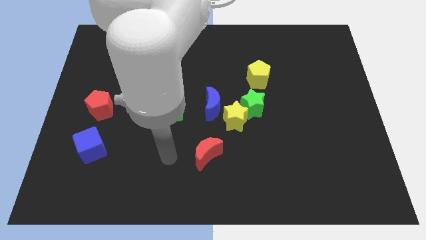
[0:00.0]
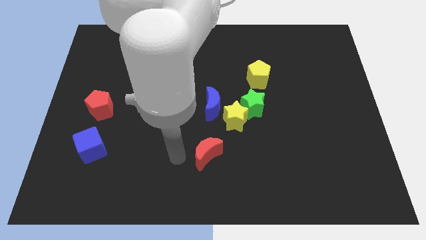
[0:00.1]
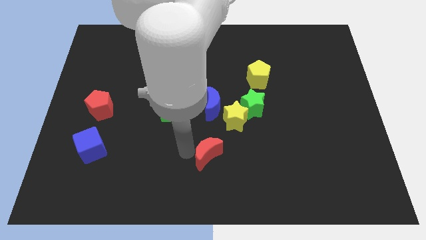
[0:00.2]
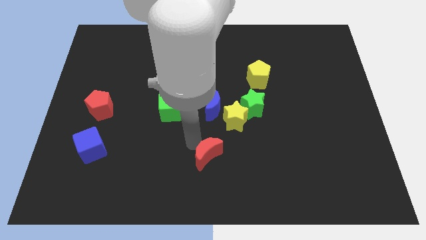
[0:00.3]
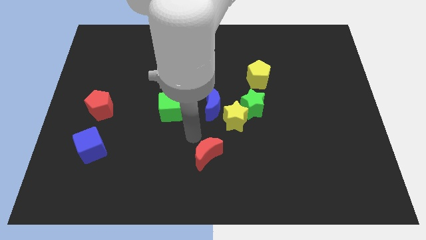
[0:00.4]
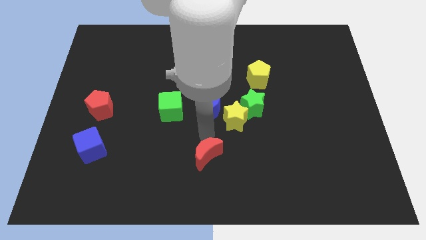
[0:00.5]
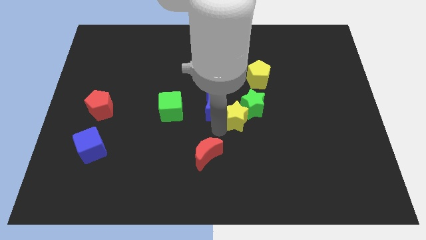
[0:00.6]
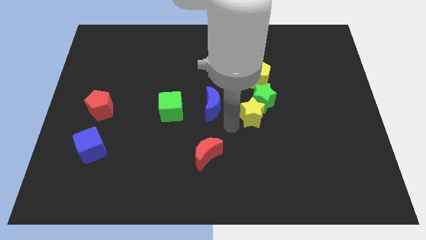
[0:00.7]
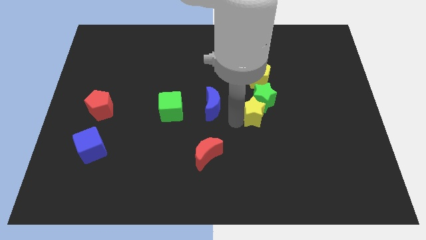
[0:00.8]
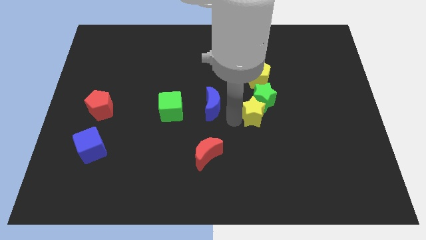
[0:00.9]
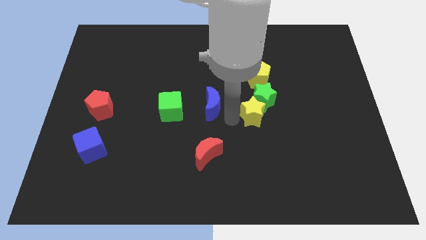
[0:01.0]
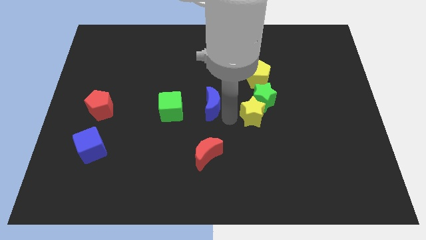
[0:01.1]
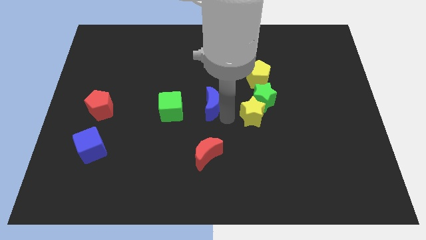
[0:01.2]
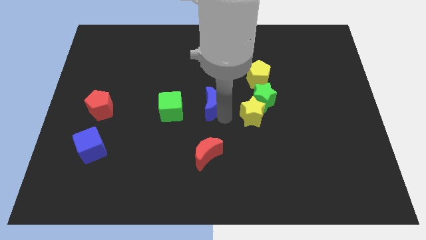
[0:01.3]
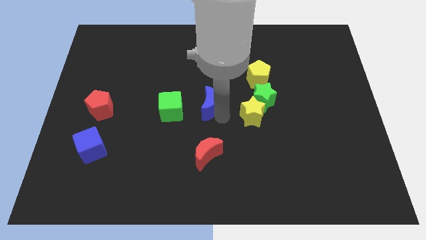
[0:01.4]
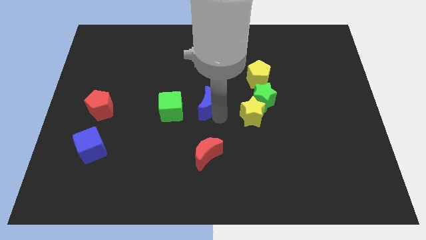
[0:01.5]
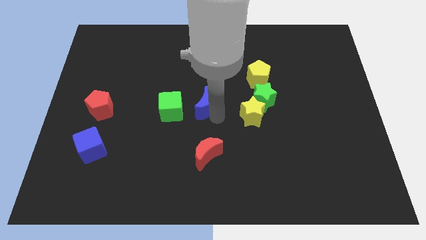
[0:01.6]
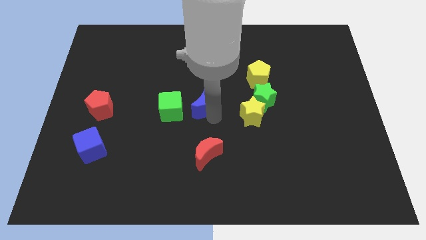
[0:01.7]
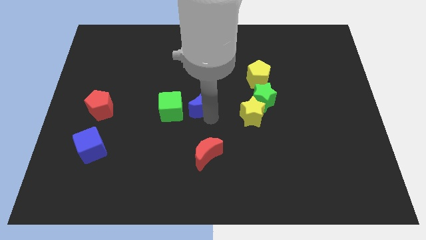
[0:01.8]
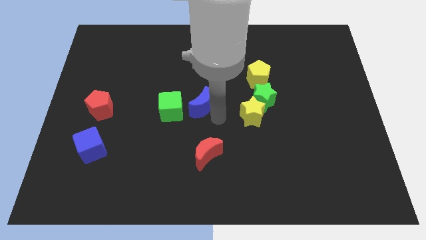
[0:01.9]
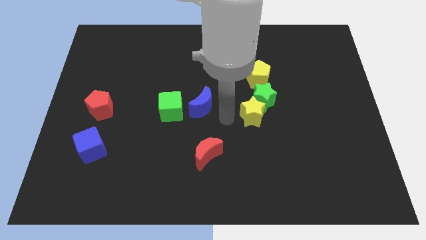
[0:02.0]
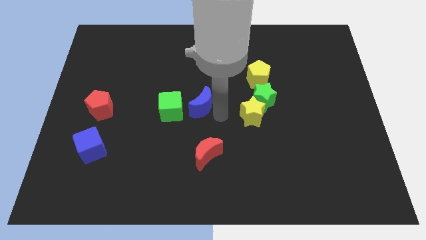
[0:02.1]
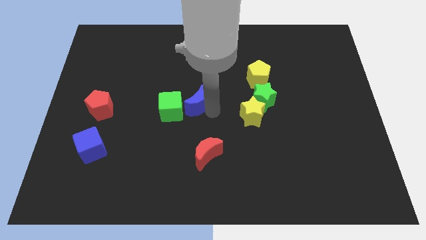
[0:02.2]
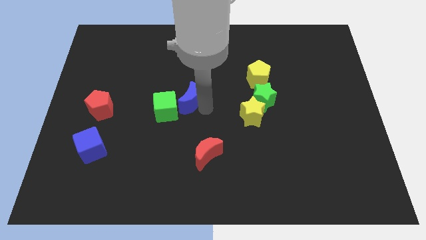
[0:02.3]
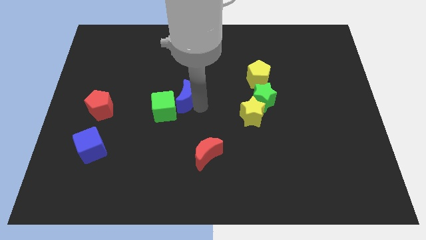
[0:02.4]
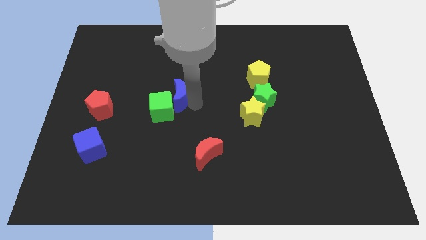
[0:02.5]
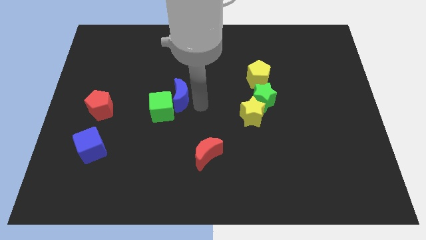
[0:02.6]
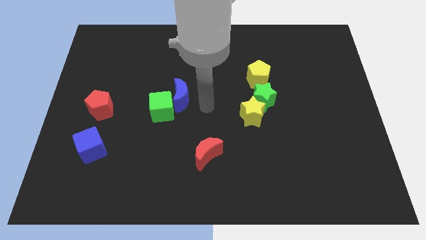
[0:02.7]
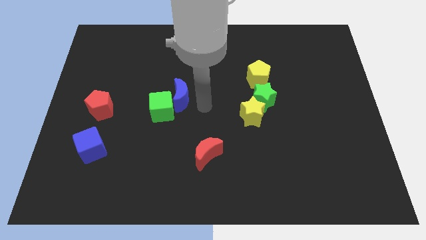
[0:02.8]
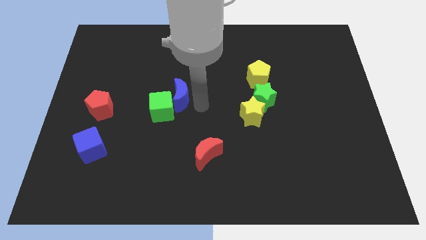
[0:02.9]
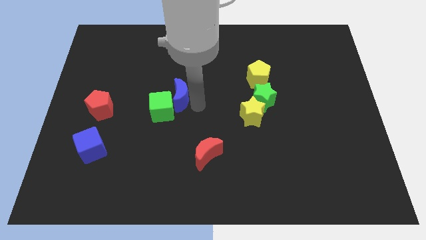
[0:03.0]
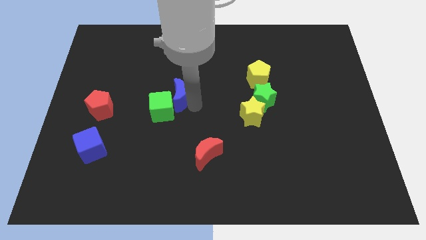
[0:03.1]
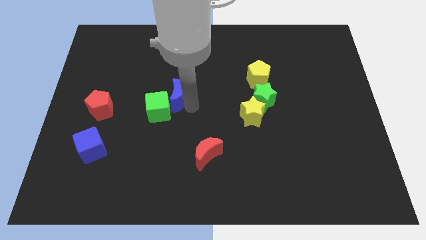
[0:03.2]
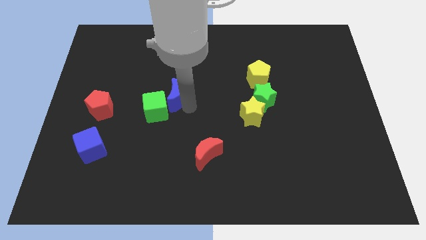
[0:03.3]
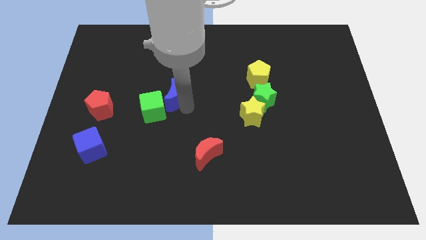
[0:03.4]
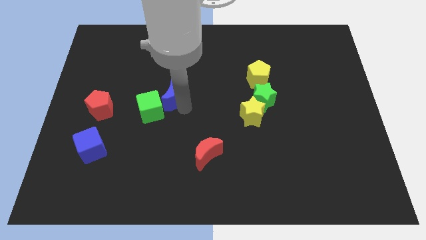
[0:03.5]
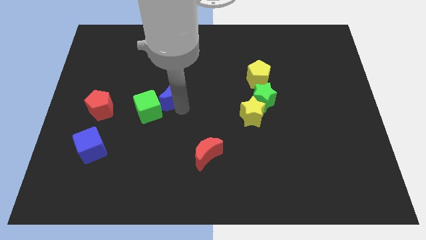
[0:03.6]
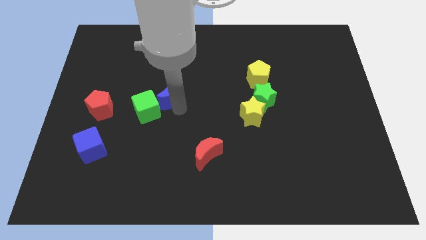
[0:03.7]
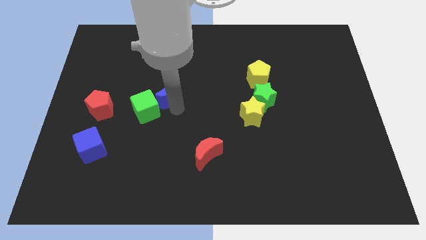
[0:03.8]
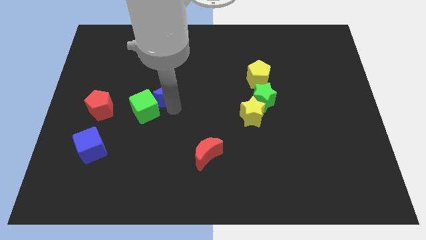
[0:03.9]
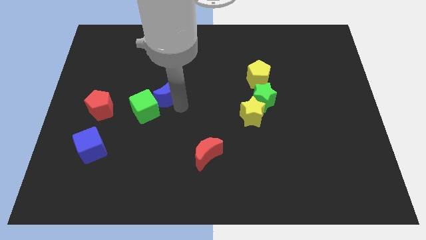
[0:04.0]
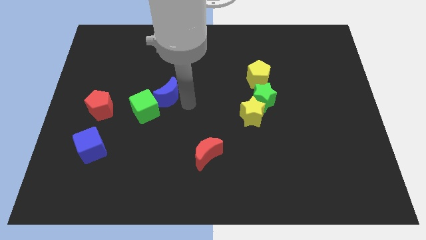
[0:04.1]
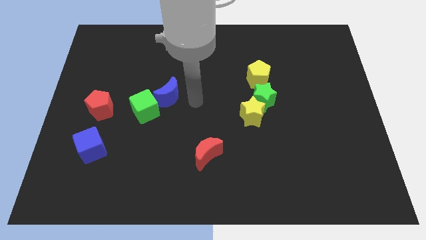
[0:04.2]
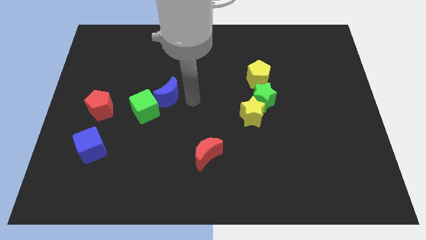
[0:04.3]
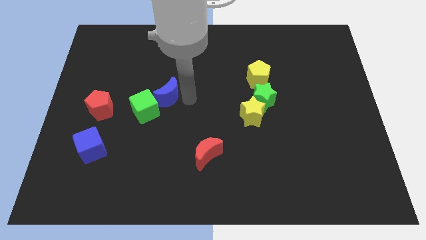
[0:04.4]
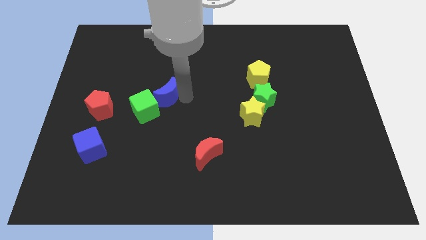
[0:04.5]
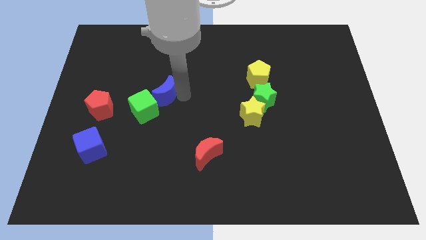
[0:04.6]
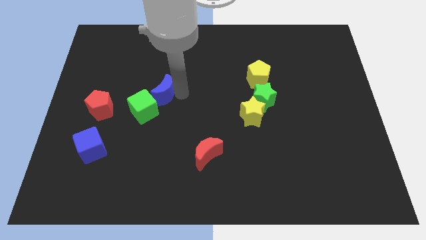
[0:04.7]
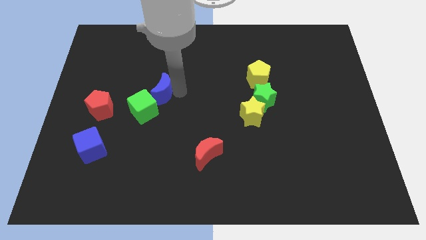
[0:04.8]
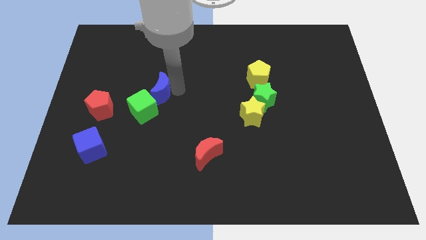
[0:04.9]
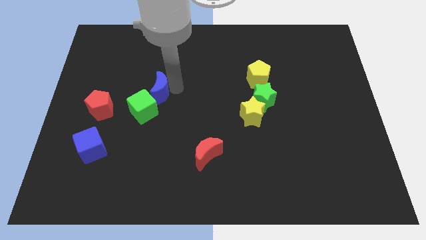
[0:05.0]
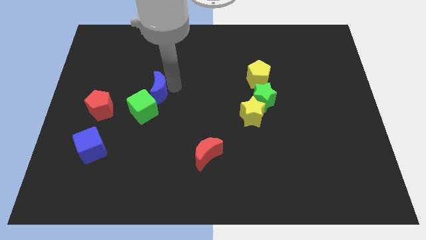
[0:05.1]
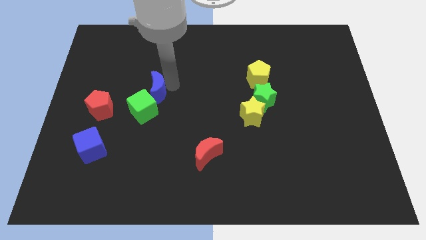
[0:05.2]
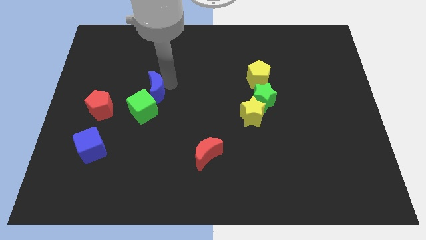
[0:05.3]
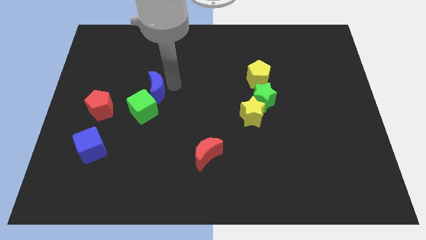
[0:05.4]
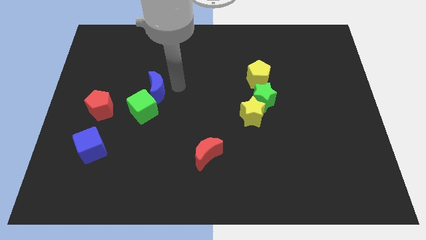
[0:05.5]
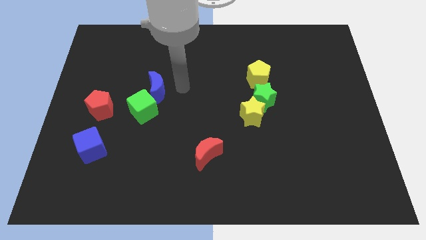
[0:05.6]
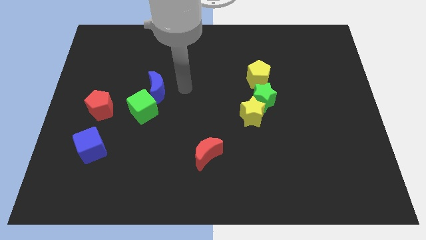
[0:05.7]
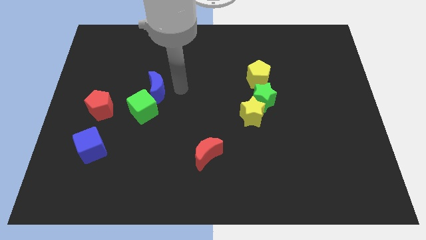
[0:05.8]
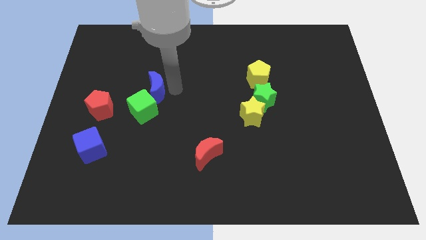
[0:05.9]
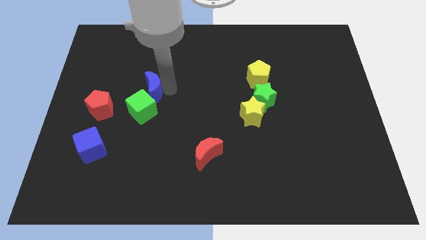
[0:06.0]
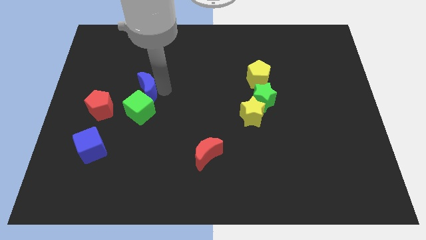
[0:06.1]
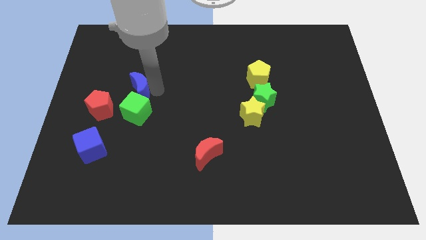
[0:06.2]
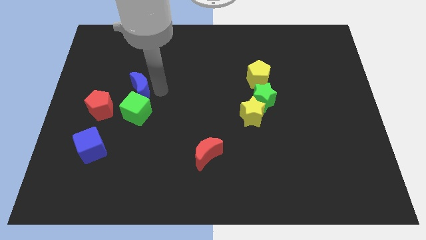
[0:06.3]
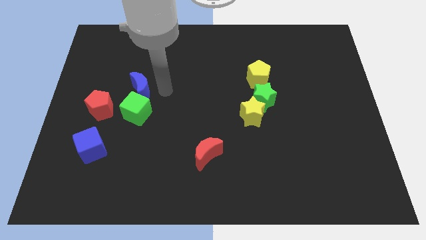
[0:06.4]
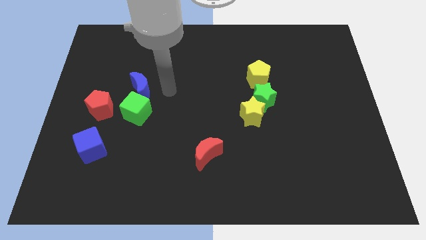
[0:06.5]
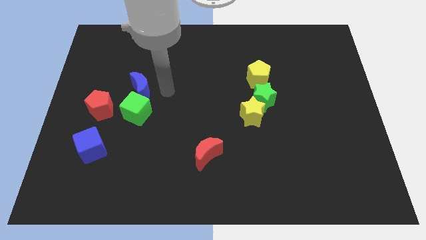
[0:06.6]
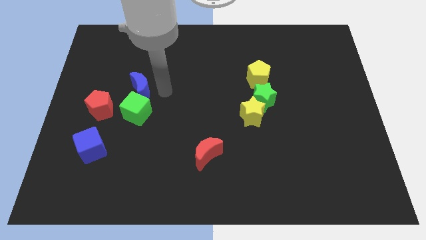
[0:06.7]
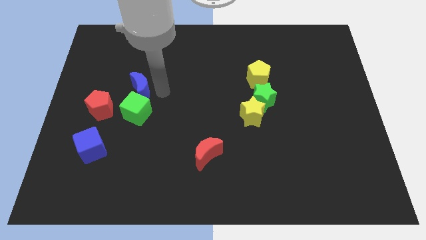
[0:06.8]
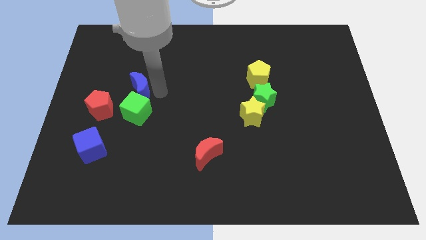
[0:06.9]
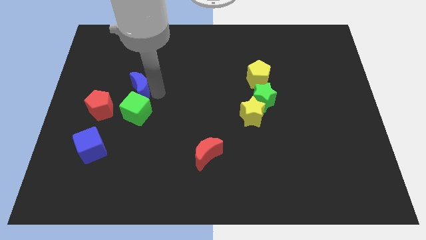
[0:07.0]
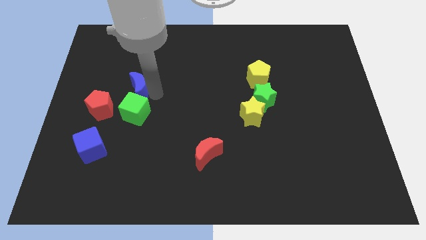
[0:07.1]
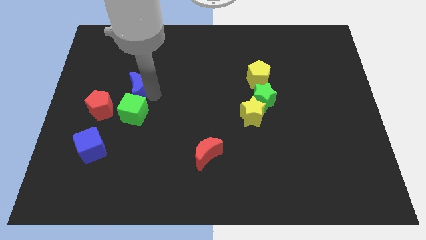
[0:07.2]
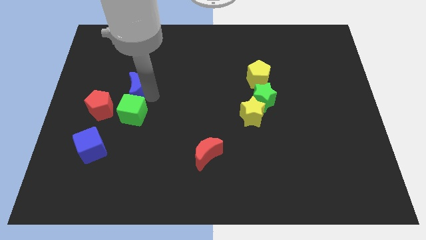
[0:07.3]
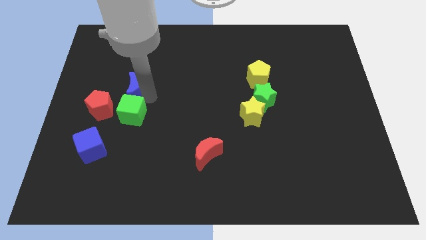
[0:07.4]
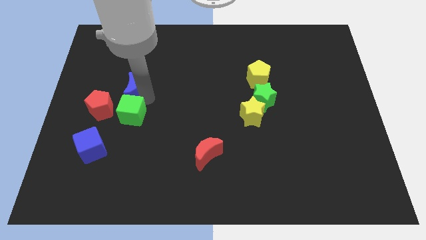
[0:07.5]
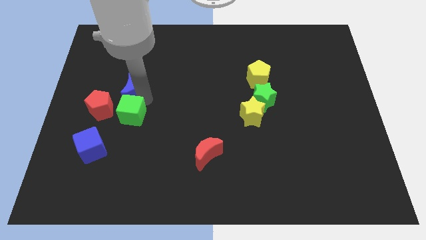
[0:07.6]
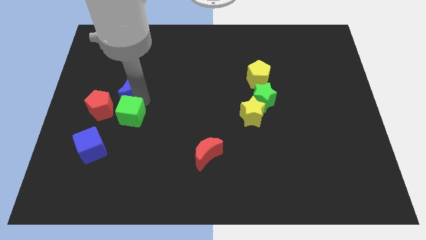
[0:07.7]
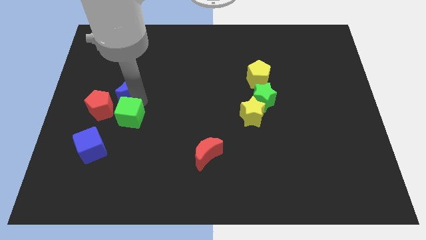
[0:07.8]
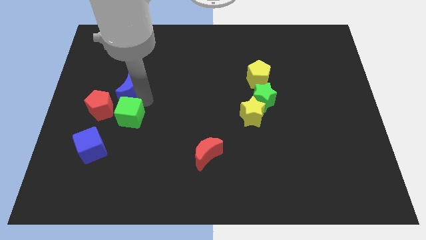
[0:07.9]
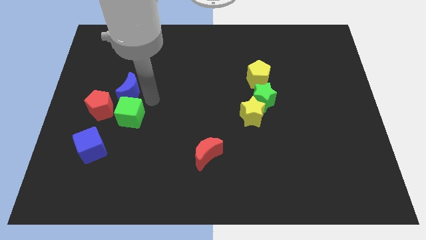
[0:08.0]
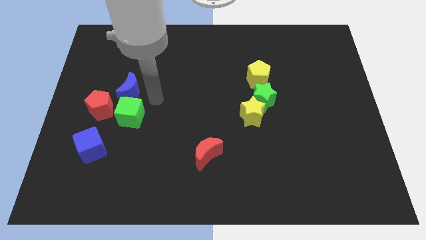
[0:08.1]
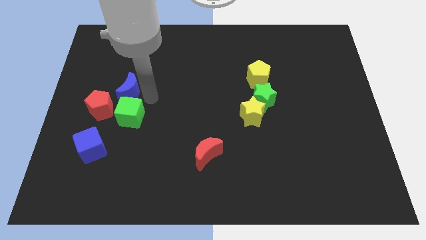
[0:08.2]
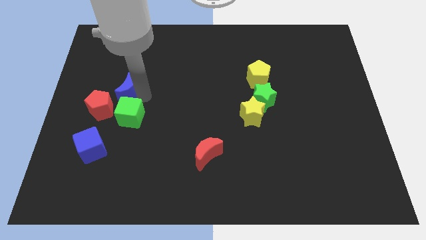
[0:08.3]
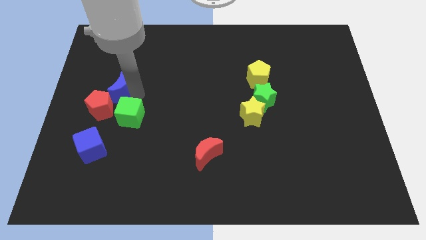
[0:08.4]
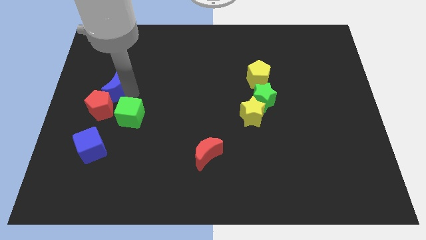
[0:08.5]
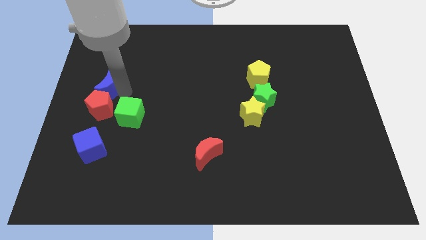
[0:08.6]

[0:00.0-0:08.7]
slide the blue moon to the center left
